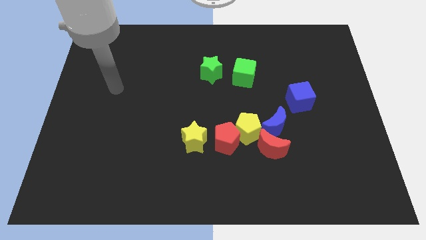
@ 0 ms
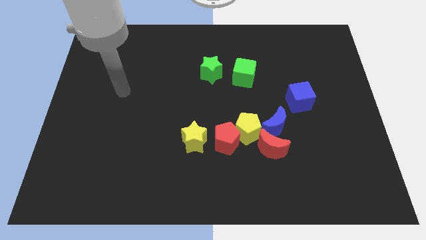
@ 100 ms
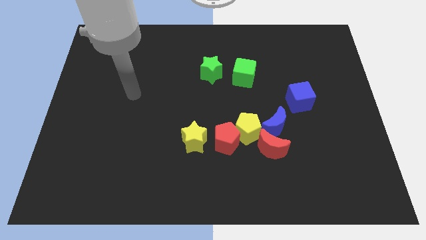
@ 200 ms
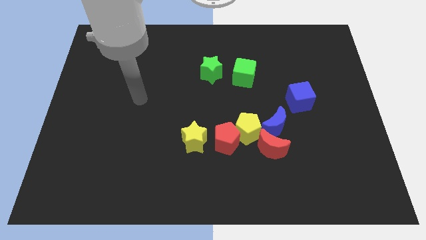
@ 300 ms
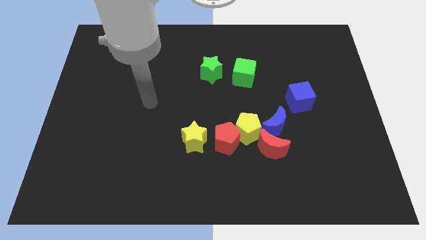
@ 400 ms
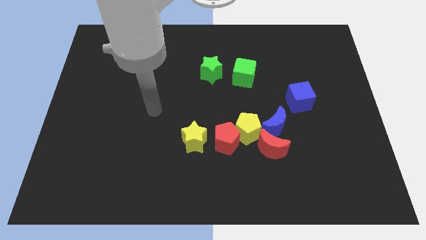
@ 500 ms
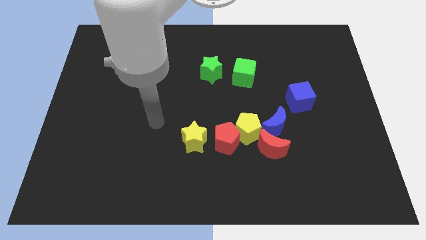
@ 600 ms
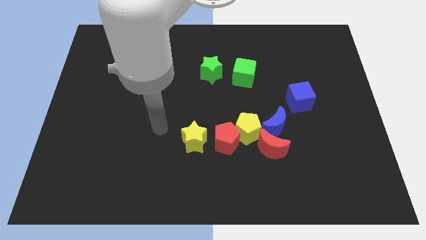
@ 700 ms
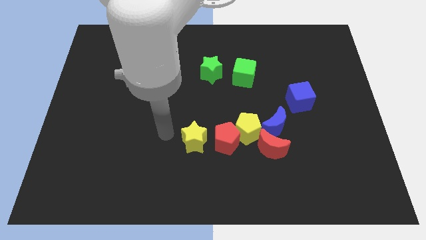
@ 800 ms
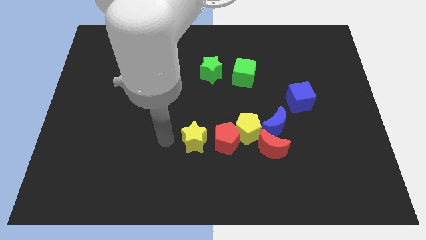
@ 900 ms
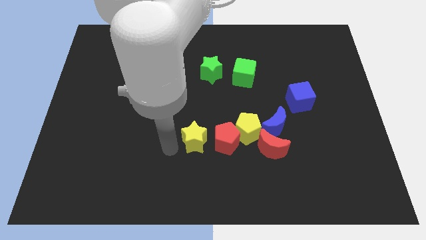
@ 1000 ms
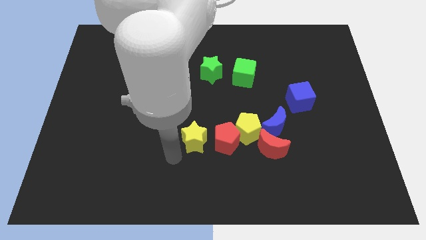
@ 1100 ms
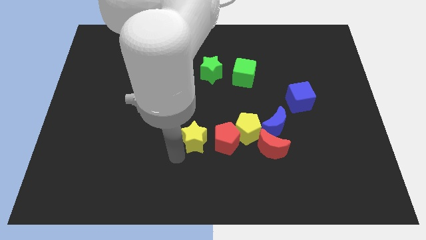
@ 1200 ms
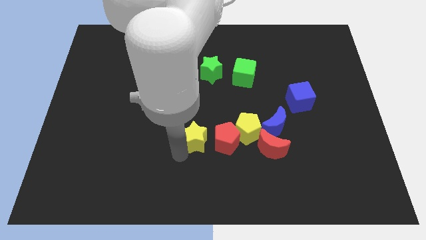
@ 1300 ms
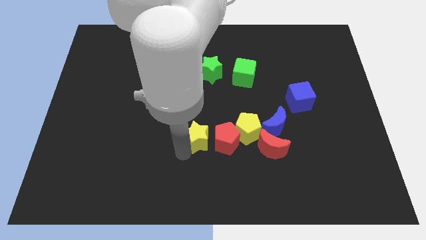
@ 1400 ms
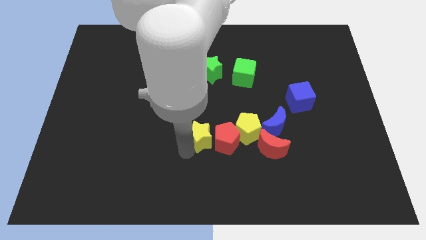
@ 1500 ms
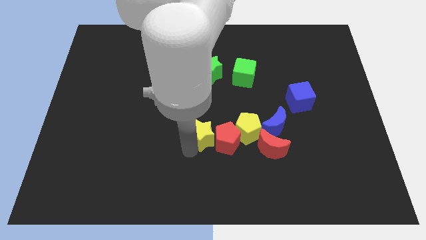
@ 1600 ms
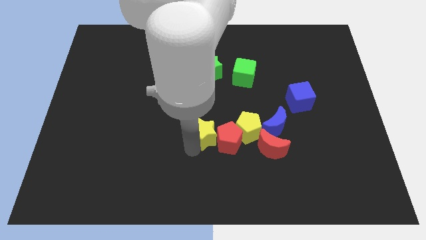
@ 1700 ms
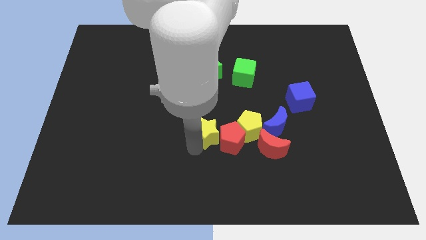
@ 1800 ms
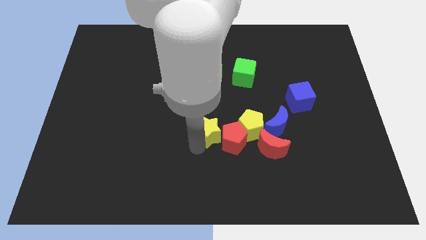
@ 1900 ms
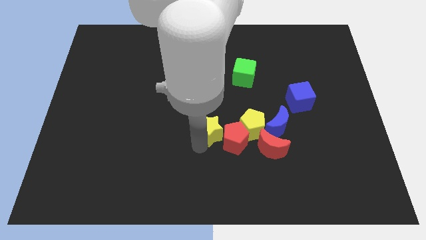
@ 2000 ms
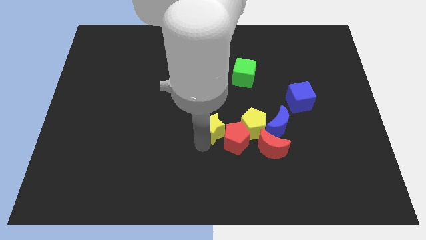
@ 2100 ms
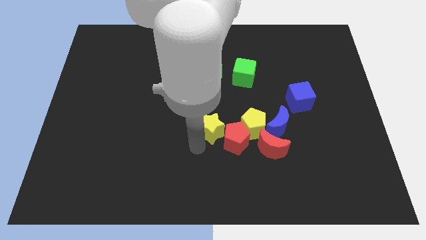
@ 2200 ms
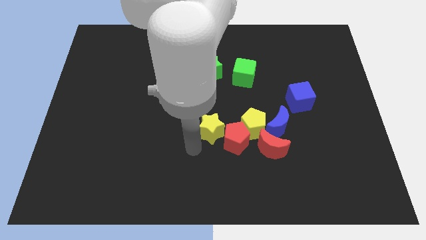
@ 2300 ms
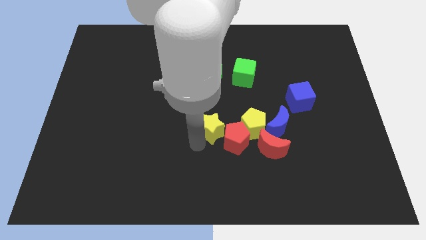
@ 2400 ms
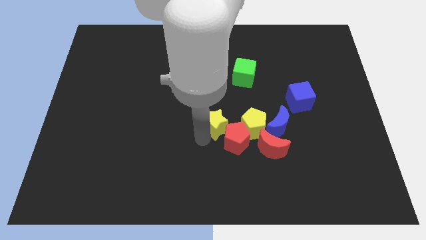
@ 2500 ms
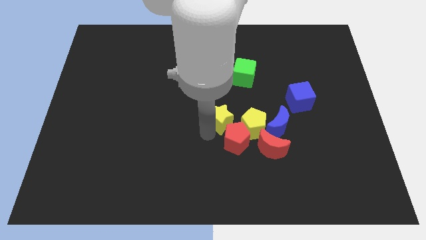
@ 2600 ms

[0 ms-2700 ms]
push the yellow star a little bit upwards and then right

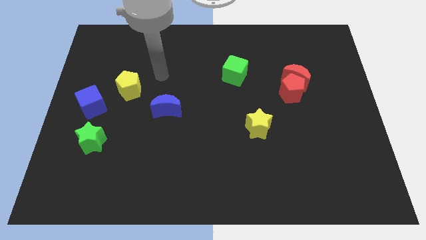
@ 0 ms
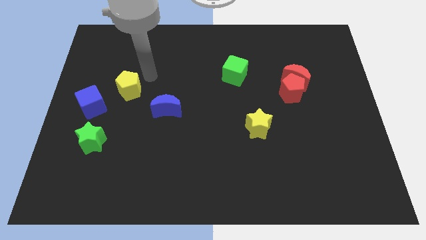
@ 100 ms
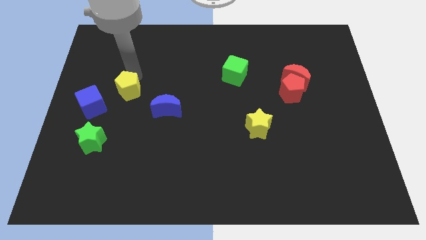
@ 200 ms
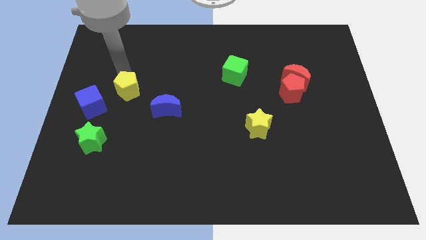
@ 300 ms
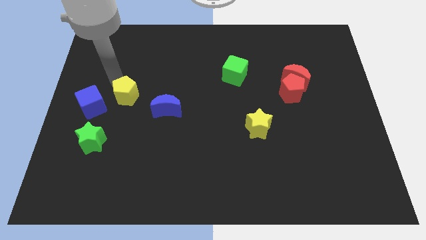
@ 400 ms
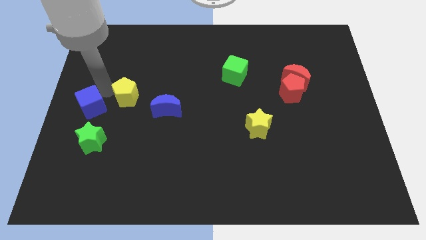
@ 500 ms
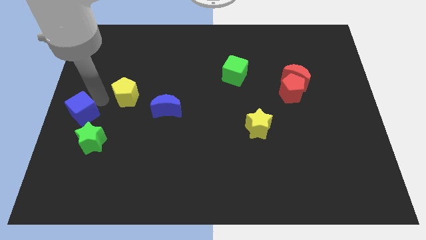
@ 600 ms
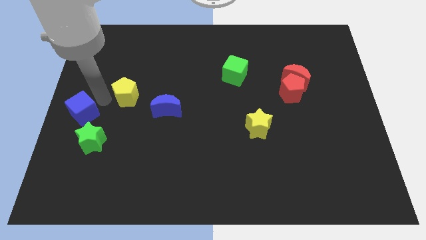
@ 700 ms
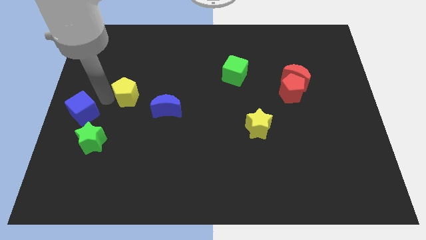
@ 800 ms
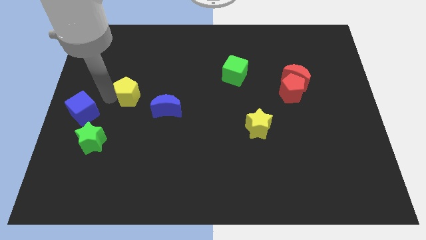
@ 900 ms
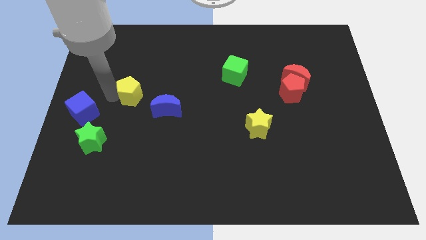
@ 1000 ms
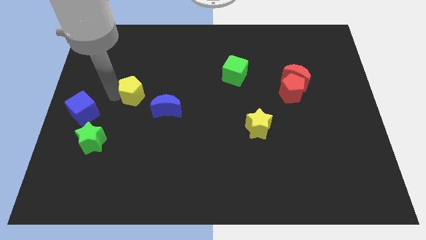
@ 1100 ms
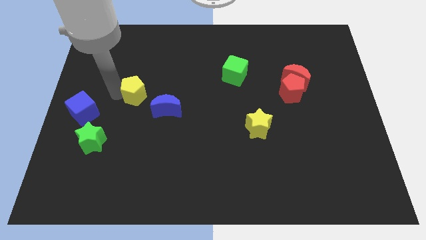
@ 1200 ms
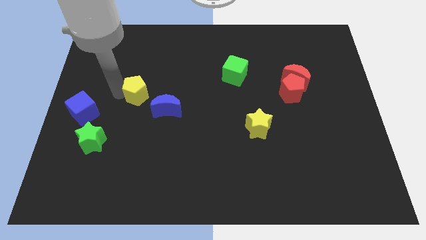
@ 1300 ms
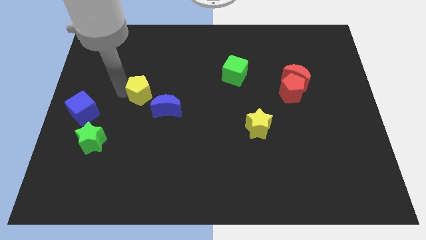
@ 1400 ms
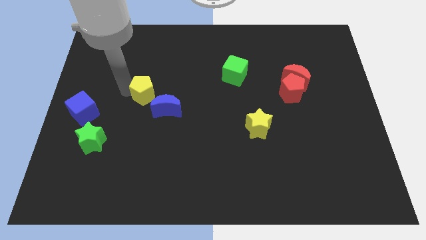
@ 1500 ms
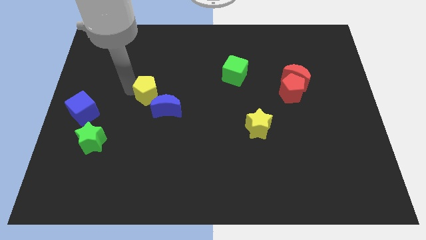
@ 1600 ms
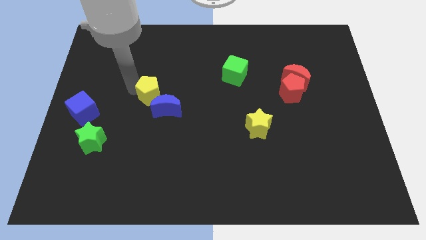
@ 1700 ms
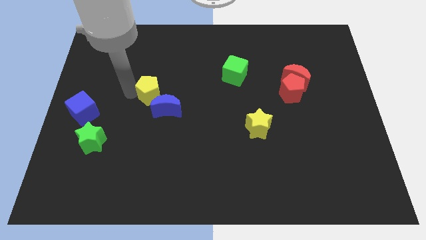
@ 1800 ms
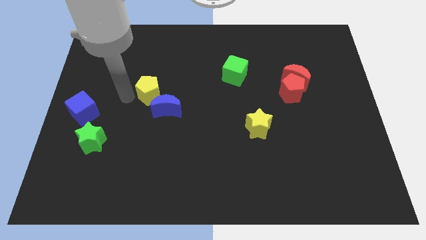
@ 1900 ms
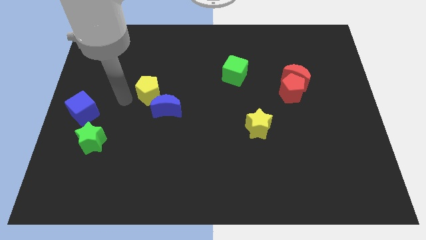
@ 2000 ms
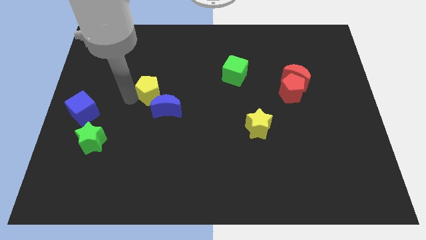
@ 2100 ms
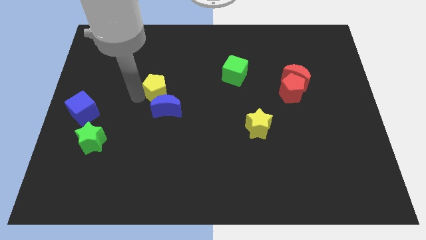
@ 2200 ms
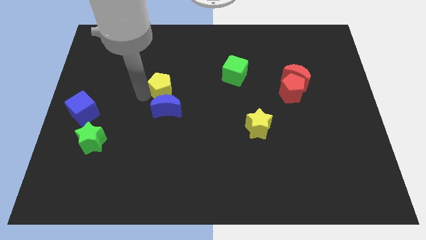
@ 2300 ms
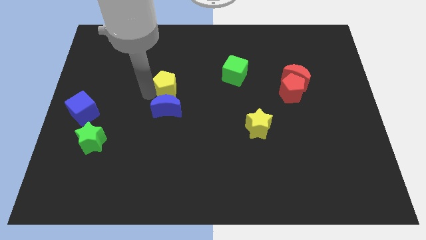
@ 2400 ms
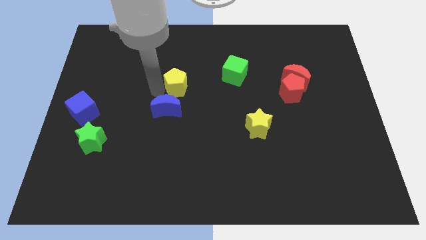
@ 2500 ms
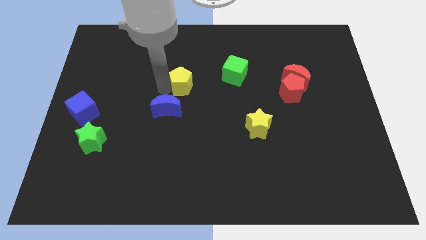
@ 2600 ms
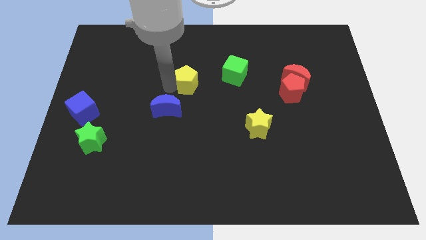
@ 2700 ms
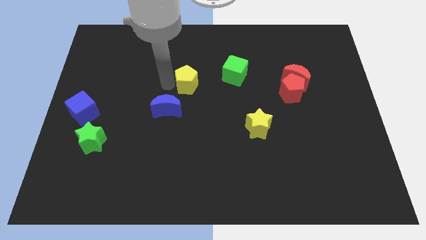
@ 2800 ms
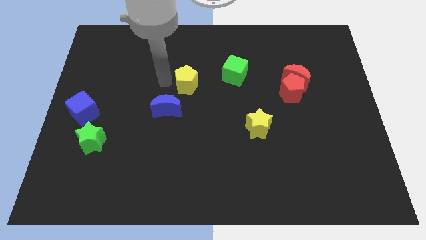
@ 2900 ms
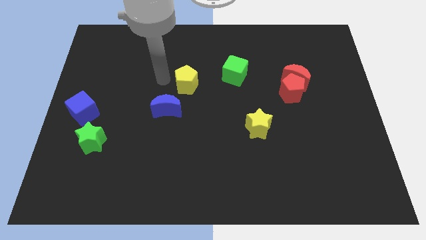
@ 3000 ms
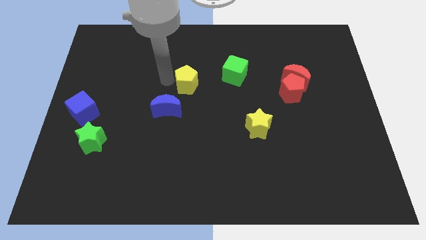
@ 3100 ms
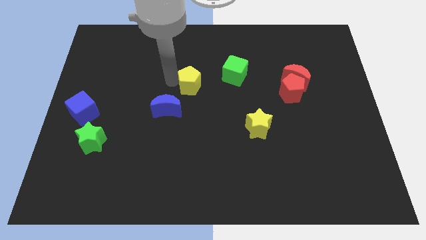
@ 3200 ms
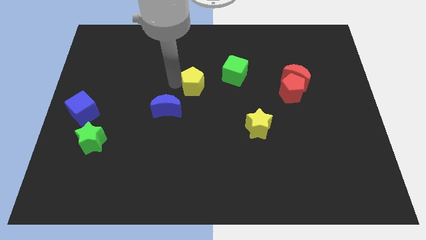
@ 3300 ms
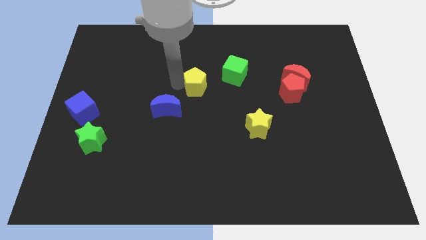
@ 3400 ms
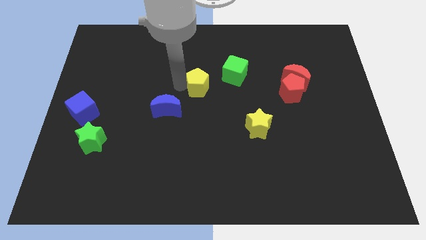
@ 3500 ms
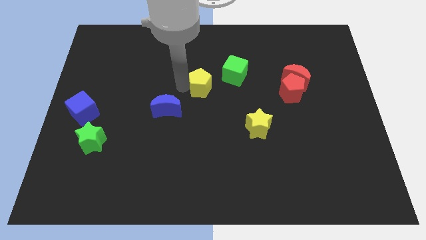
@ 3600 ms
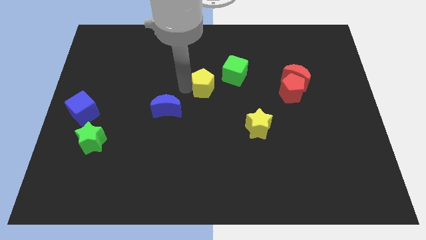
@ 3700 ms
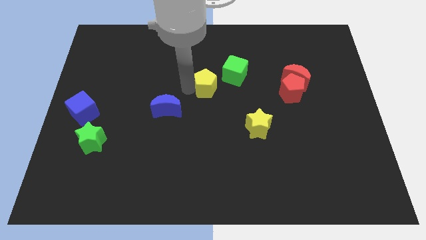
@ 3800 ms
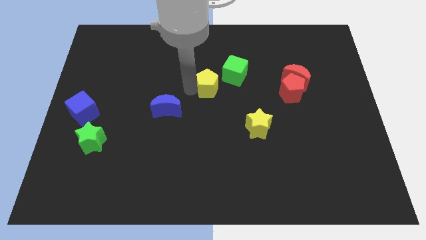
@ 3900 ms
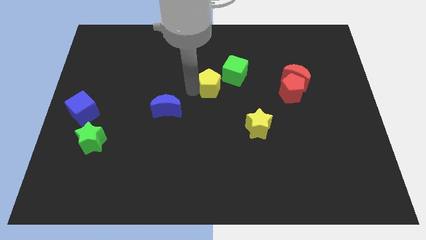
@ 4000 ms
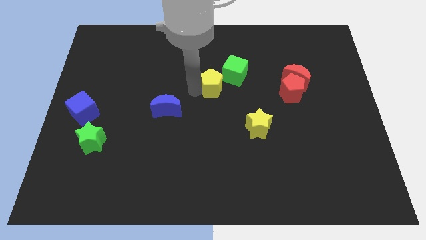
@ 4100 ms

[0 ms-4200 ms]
push the yellow pentagon right

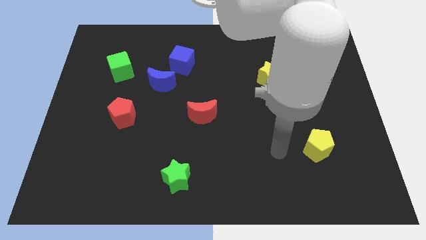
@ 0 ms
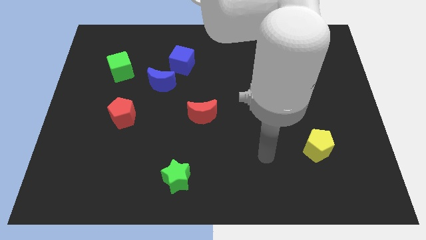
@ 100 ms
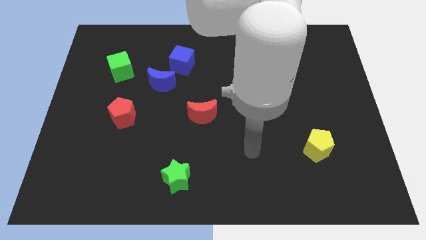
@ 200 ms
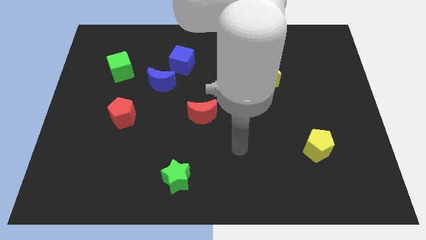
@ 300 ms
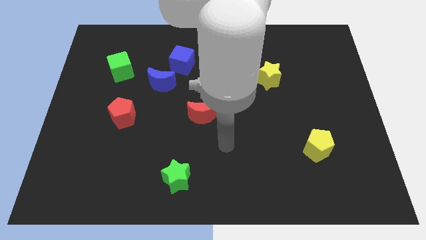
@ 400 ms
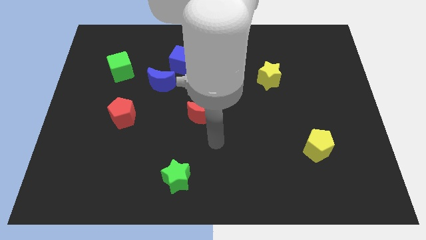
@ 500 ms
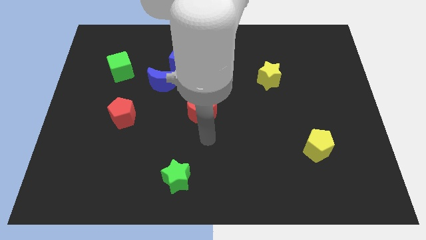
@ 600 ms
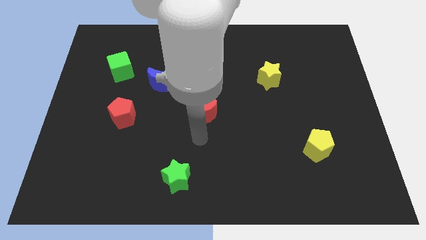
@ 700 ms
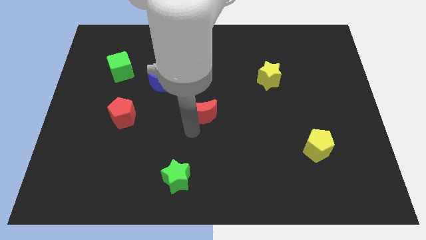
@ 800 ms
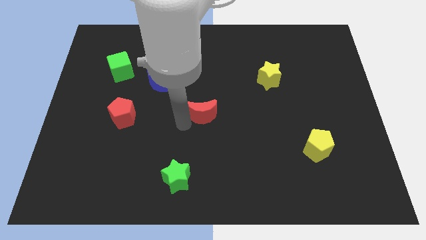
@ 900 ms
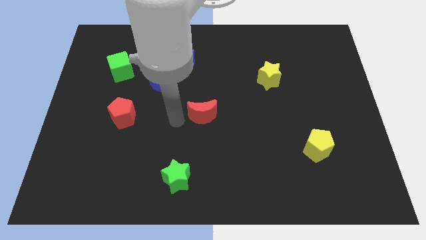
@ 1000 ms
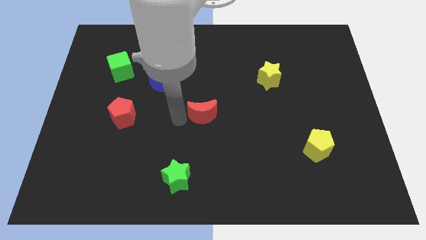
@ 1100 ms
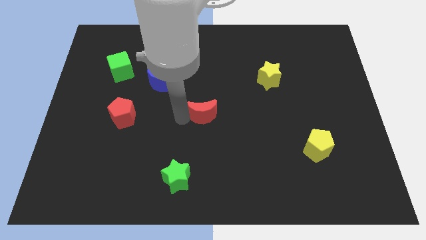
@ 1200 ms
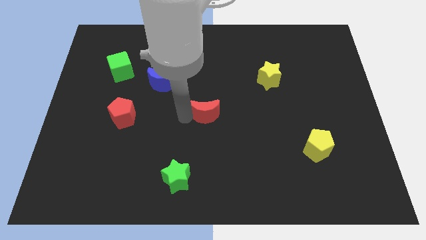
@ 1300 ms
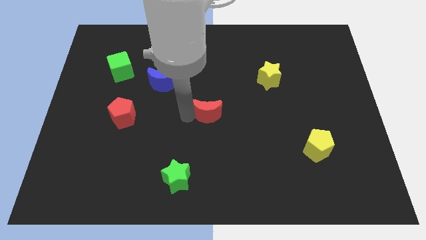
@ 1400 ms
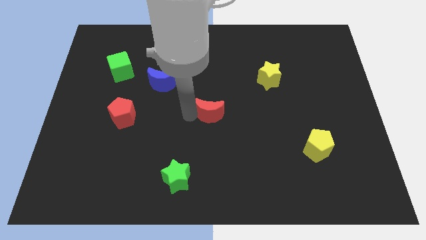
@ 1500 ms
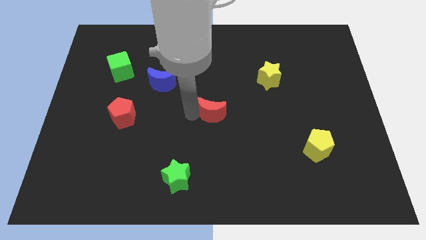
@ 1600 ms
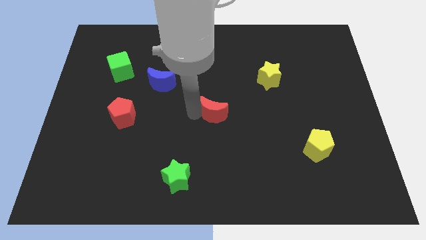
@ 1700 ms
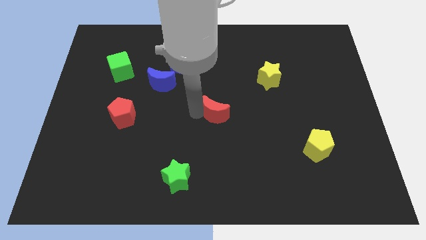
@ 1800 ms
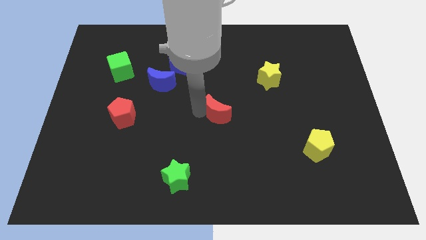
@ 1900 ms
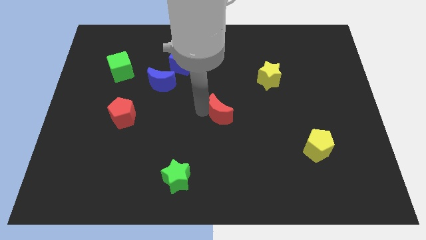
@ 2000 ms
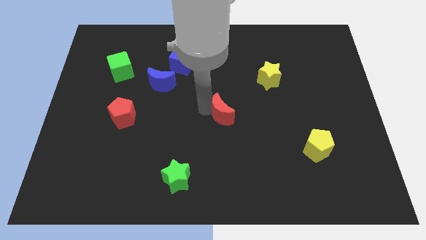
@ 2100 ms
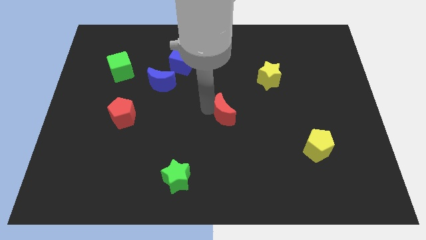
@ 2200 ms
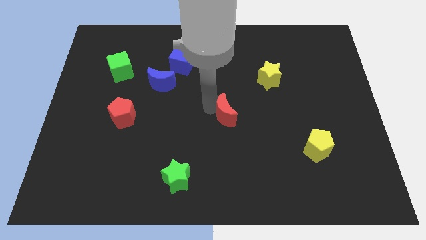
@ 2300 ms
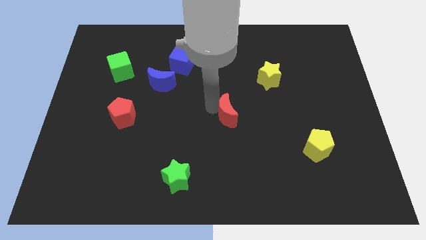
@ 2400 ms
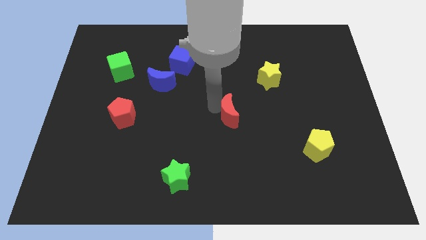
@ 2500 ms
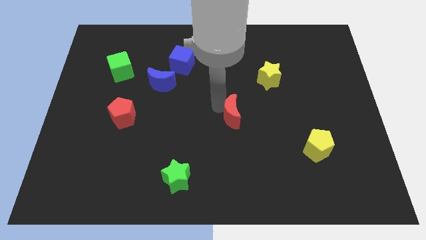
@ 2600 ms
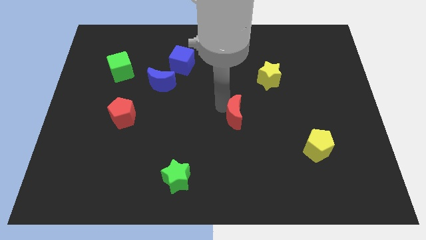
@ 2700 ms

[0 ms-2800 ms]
slightly slide the red moon right
